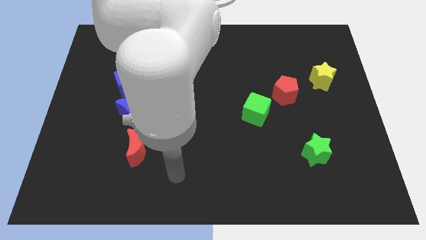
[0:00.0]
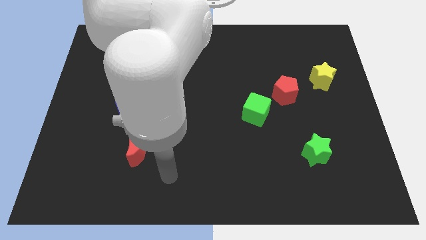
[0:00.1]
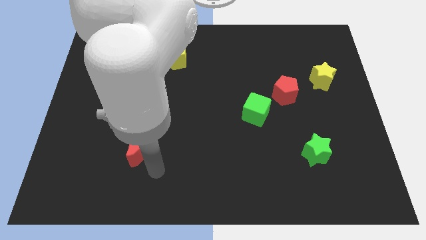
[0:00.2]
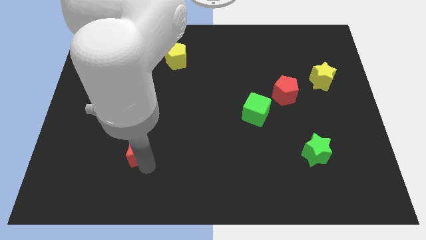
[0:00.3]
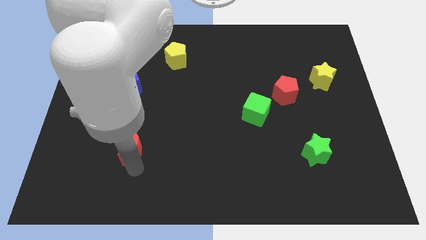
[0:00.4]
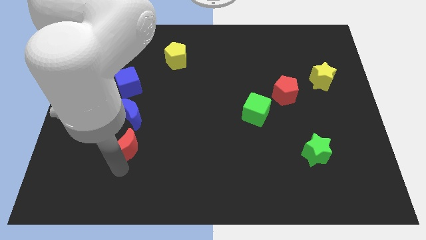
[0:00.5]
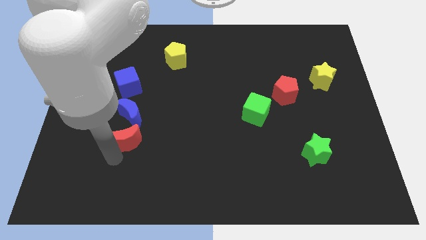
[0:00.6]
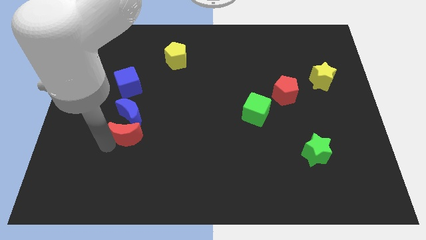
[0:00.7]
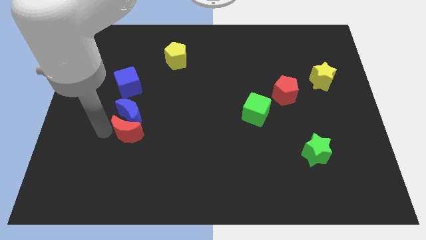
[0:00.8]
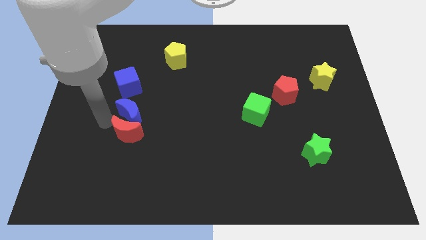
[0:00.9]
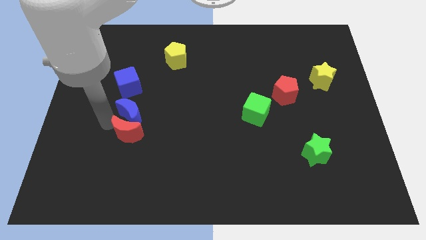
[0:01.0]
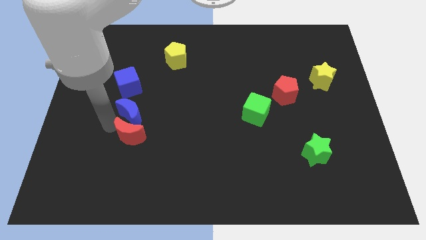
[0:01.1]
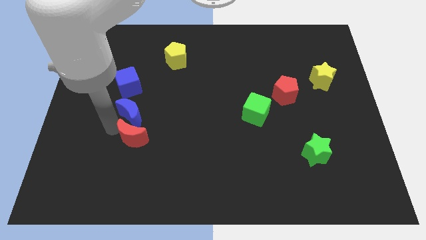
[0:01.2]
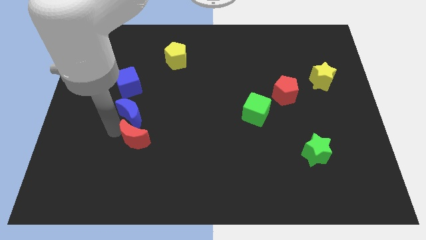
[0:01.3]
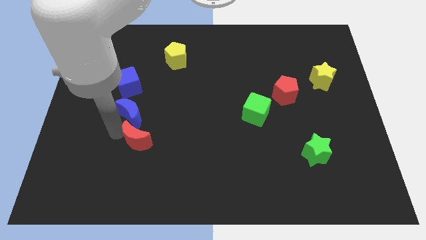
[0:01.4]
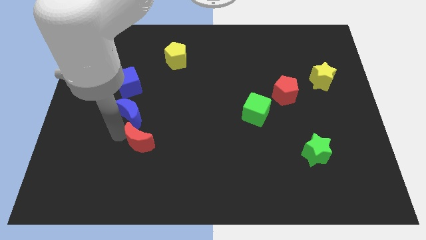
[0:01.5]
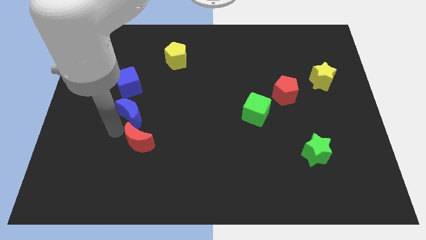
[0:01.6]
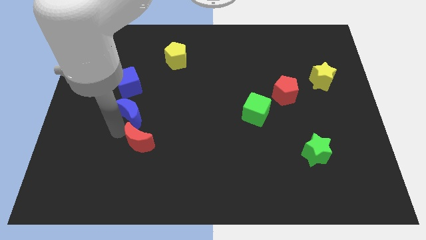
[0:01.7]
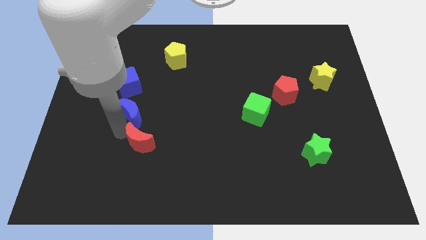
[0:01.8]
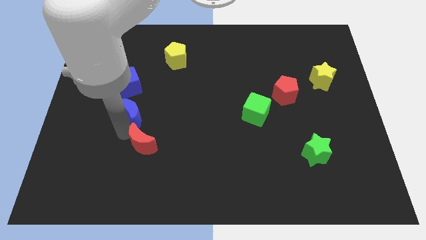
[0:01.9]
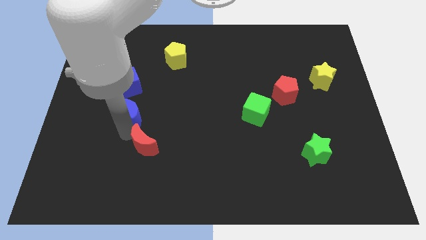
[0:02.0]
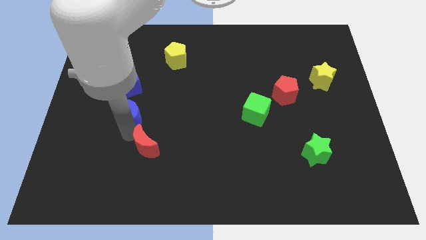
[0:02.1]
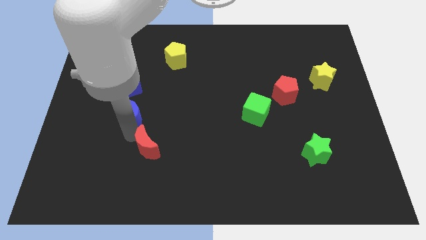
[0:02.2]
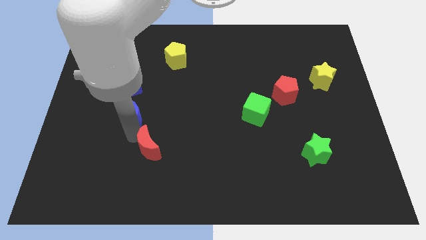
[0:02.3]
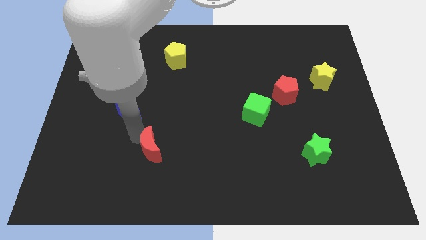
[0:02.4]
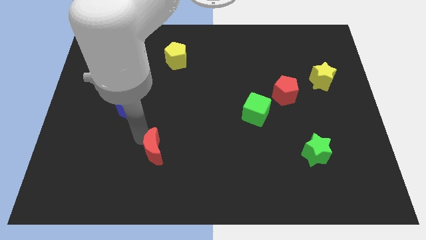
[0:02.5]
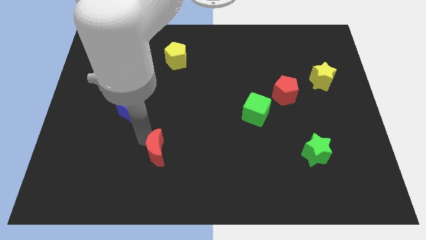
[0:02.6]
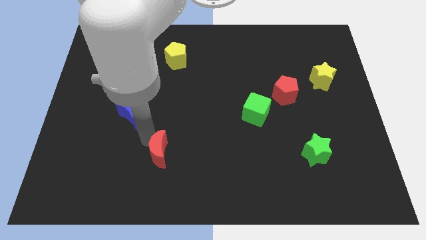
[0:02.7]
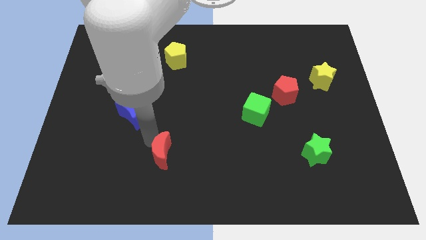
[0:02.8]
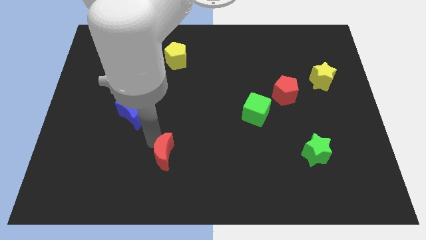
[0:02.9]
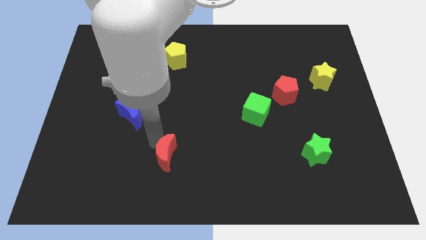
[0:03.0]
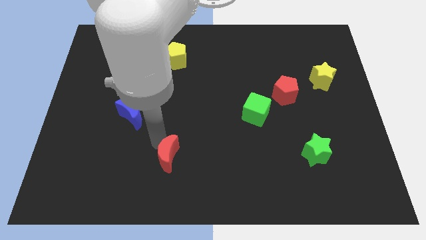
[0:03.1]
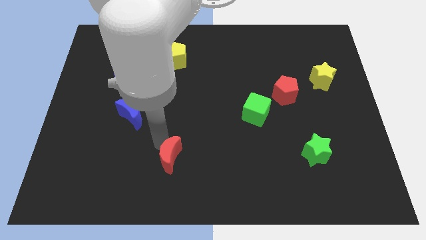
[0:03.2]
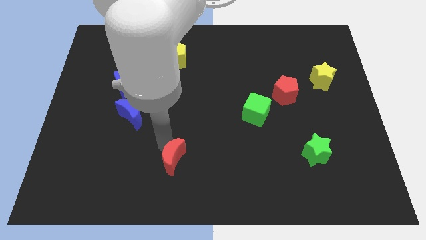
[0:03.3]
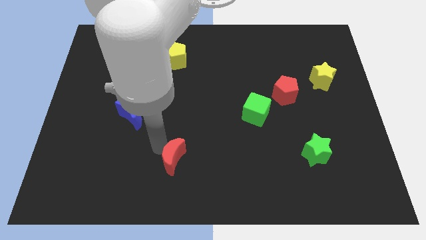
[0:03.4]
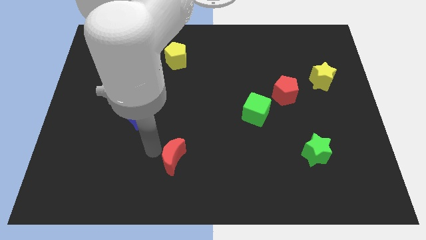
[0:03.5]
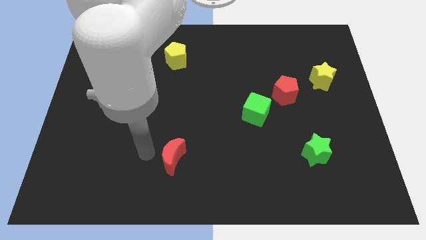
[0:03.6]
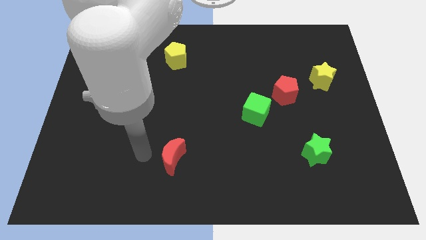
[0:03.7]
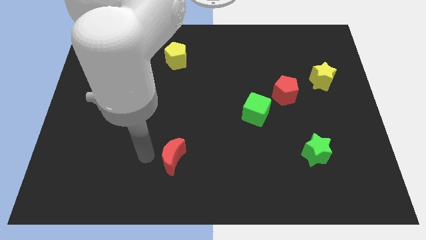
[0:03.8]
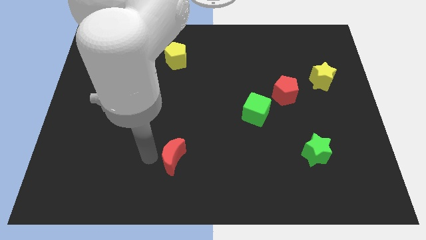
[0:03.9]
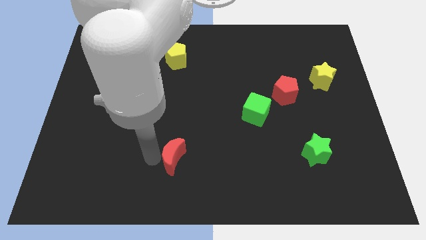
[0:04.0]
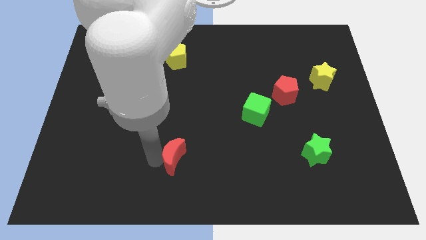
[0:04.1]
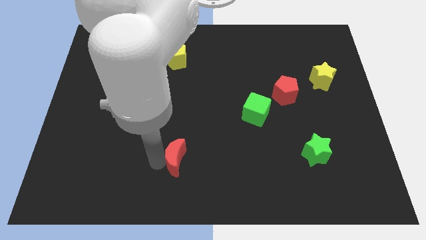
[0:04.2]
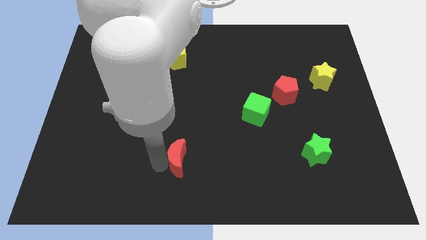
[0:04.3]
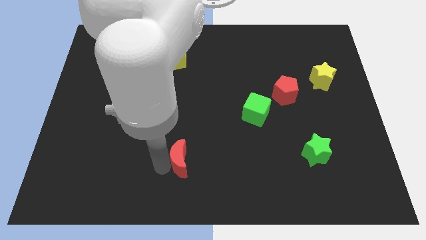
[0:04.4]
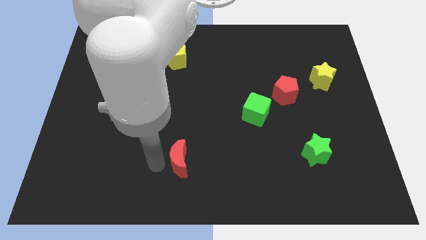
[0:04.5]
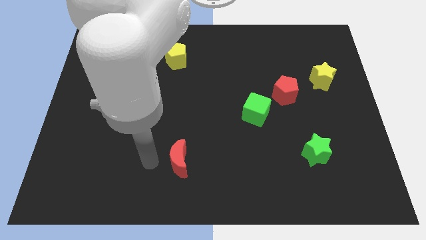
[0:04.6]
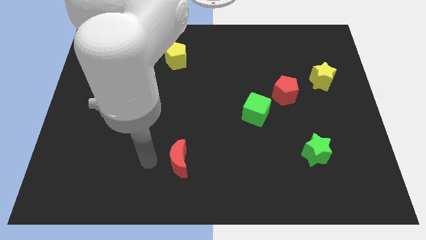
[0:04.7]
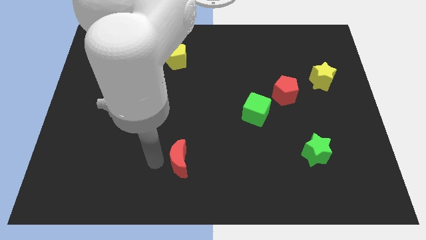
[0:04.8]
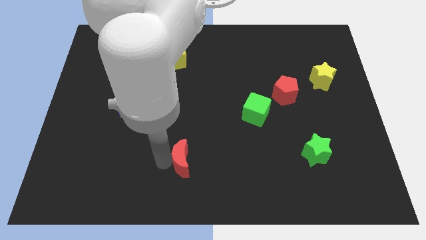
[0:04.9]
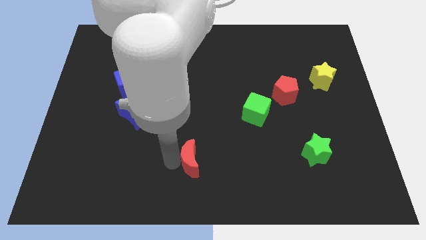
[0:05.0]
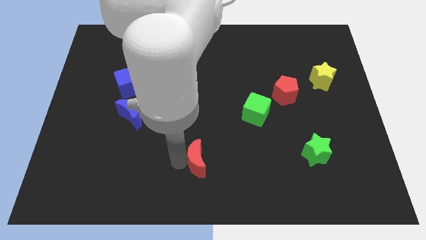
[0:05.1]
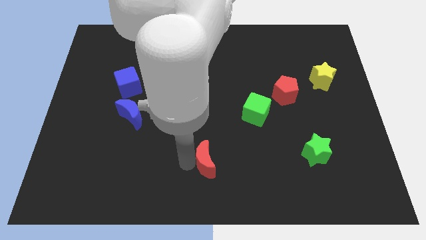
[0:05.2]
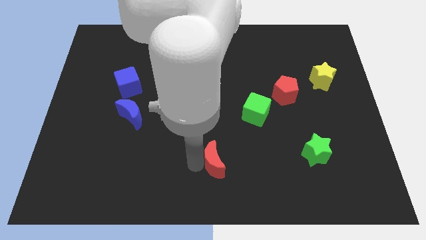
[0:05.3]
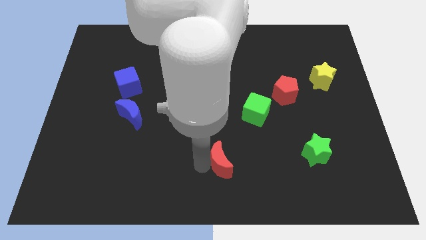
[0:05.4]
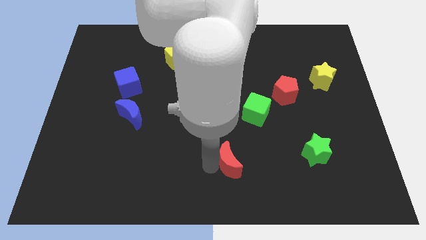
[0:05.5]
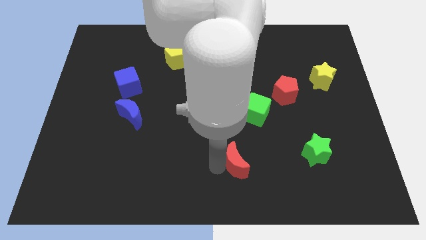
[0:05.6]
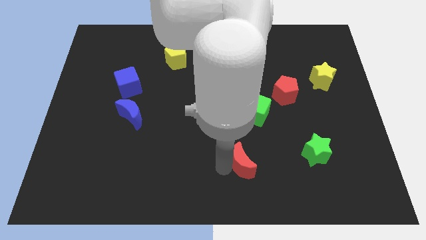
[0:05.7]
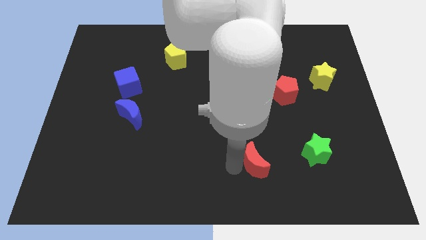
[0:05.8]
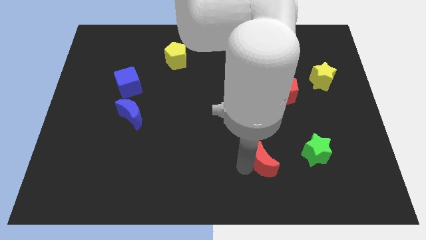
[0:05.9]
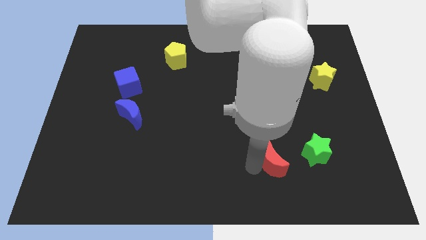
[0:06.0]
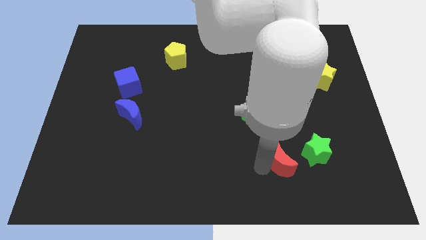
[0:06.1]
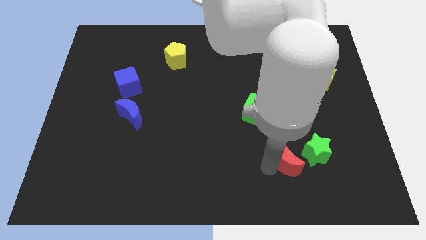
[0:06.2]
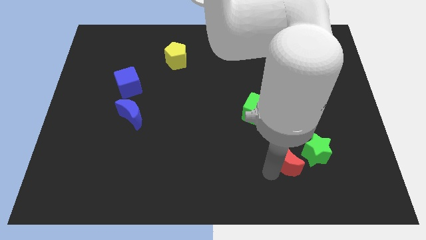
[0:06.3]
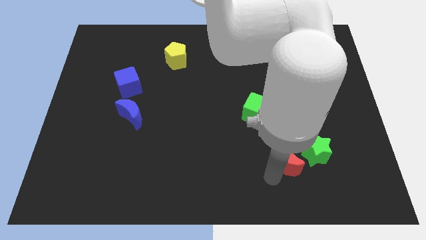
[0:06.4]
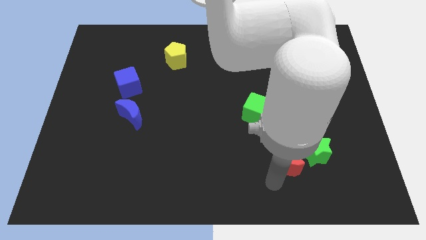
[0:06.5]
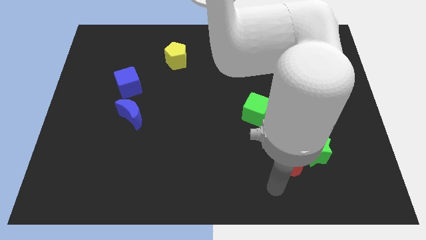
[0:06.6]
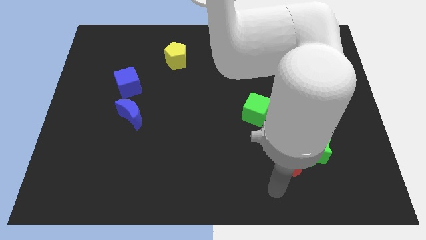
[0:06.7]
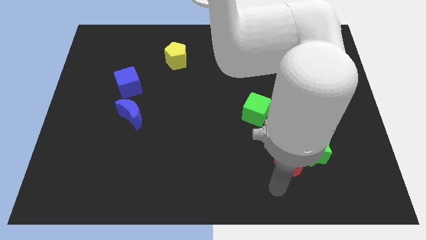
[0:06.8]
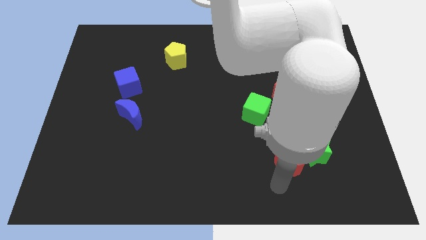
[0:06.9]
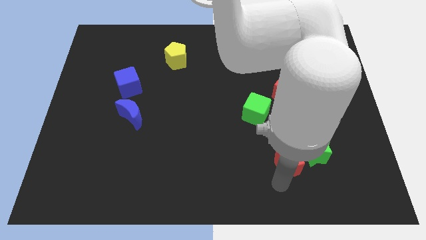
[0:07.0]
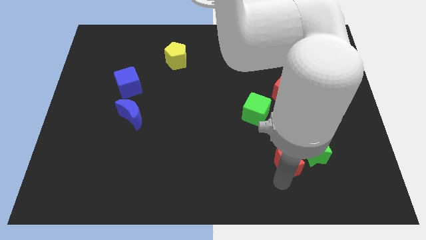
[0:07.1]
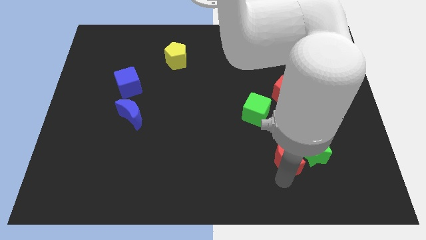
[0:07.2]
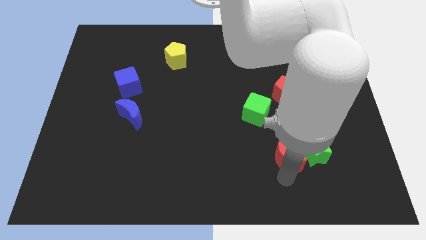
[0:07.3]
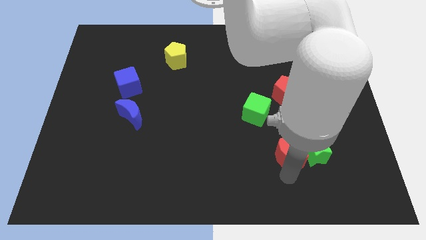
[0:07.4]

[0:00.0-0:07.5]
move the red moon next to the green star
